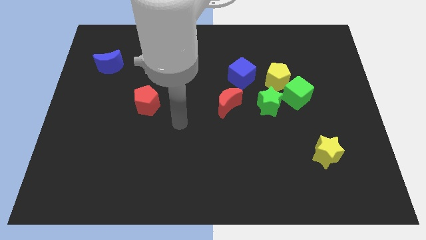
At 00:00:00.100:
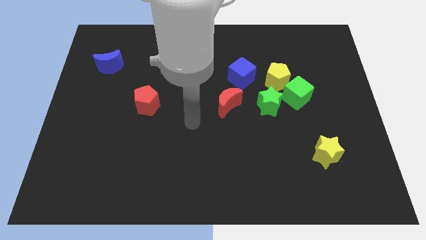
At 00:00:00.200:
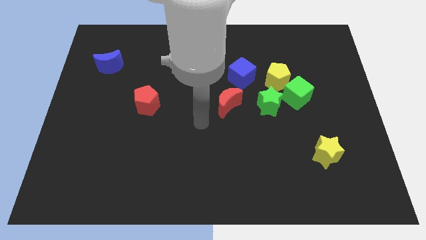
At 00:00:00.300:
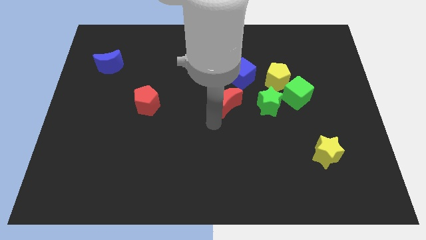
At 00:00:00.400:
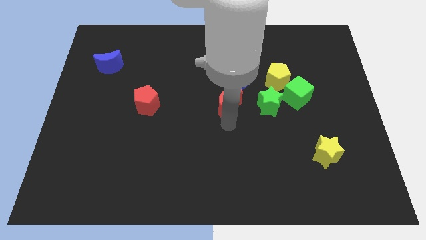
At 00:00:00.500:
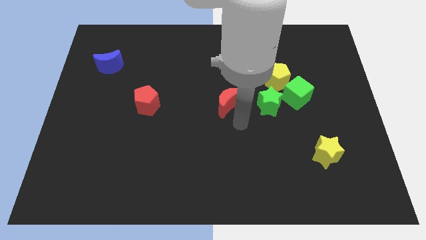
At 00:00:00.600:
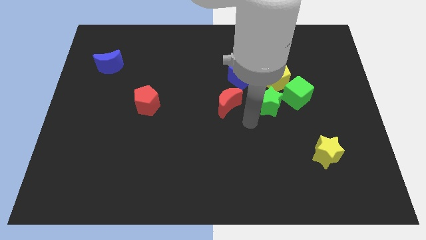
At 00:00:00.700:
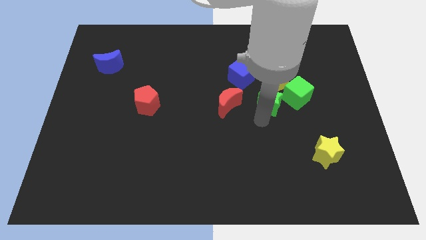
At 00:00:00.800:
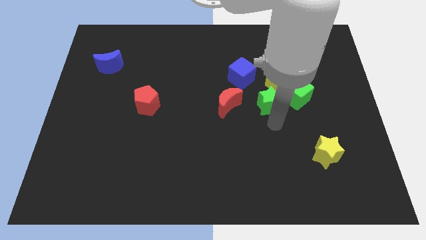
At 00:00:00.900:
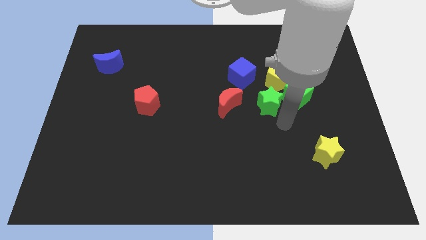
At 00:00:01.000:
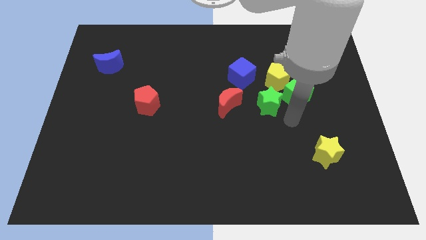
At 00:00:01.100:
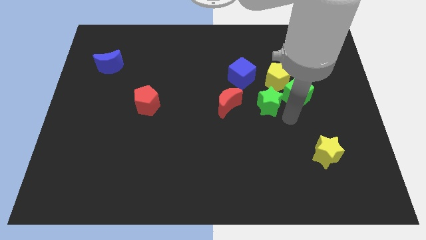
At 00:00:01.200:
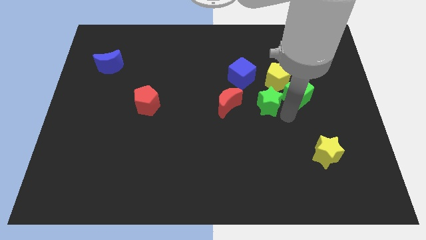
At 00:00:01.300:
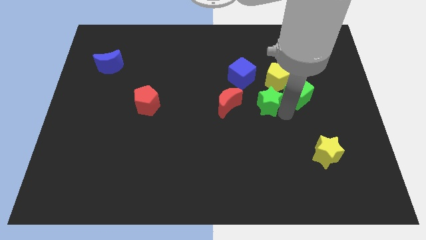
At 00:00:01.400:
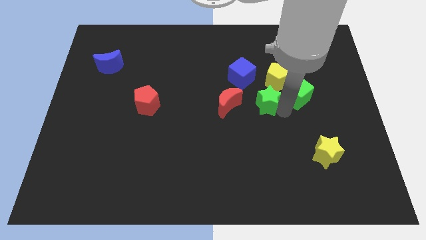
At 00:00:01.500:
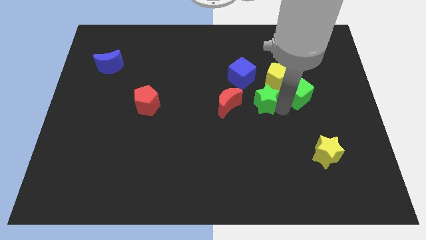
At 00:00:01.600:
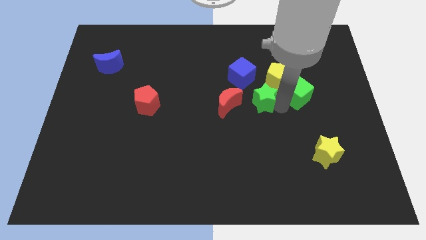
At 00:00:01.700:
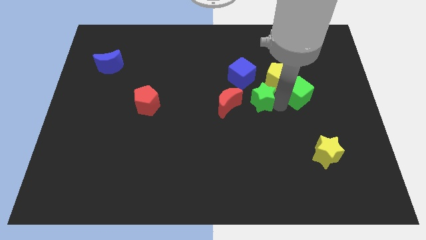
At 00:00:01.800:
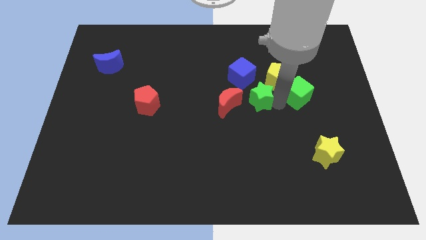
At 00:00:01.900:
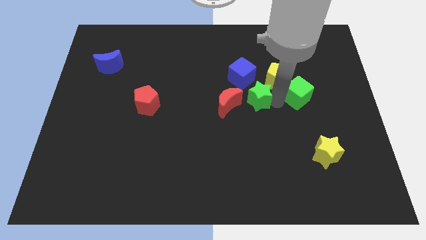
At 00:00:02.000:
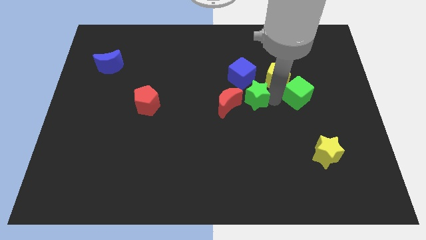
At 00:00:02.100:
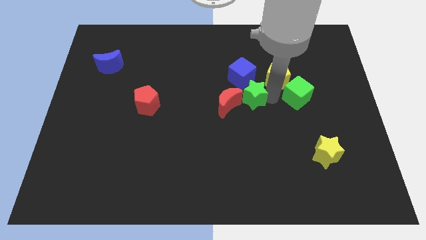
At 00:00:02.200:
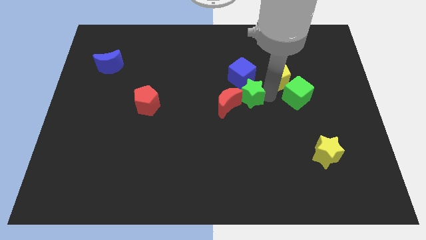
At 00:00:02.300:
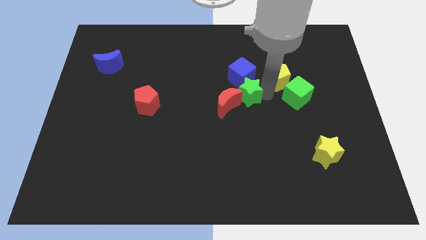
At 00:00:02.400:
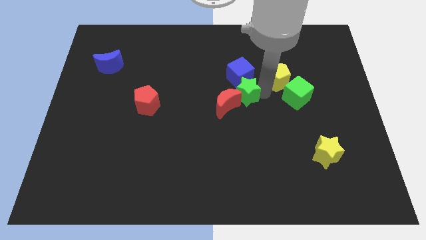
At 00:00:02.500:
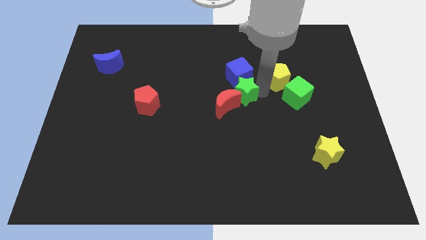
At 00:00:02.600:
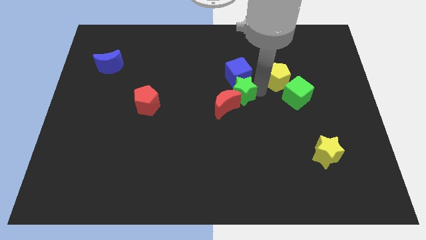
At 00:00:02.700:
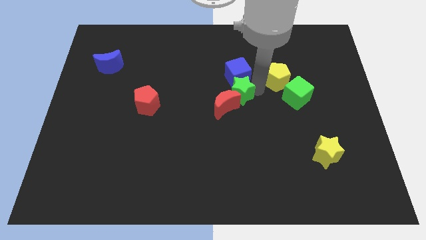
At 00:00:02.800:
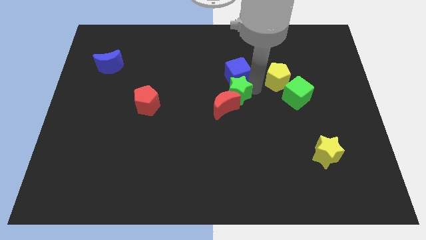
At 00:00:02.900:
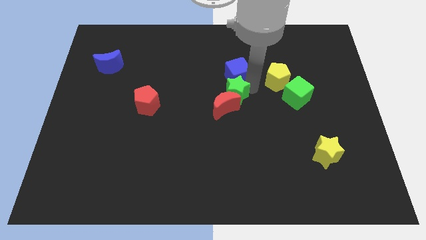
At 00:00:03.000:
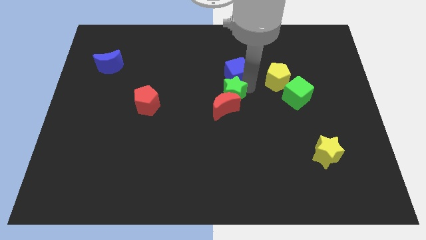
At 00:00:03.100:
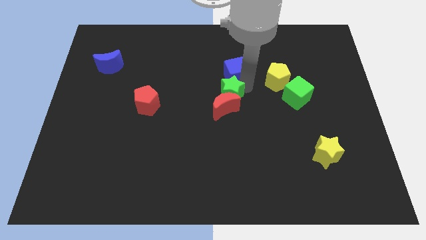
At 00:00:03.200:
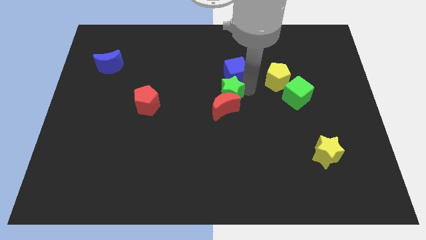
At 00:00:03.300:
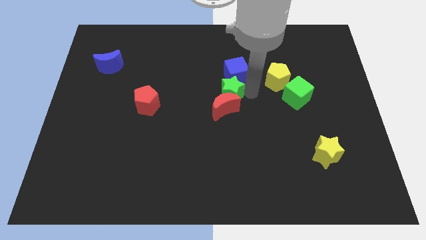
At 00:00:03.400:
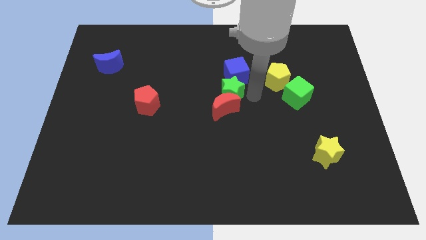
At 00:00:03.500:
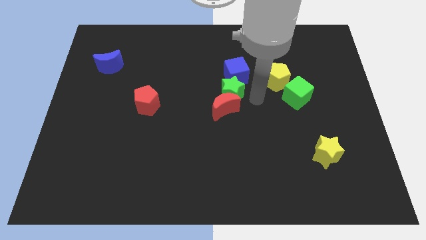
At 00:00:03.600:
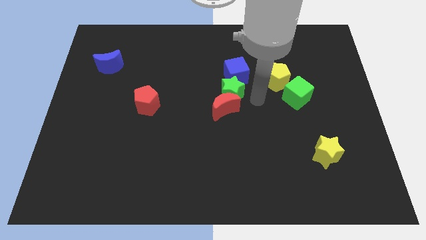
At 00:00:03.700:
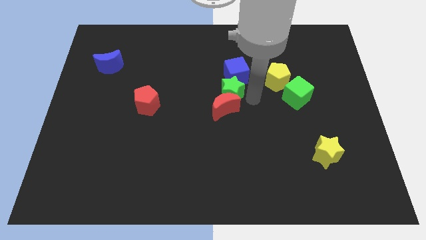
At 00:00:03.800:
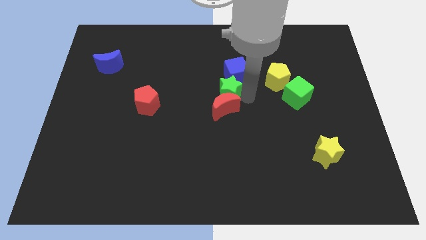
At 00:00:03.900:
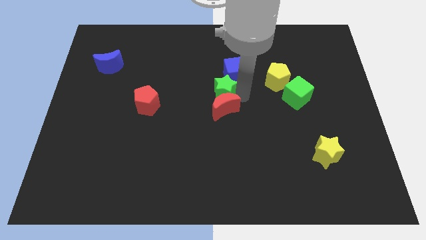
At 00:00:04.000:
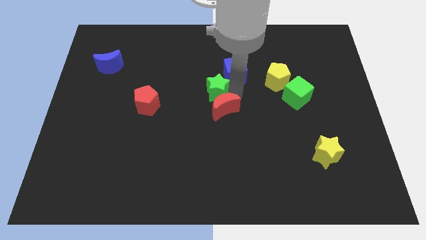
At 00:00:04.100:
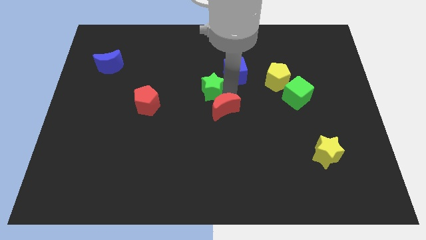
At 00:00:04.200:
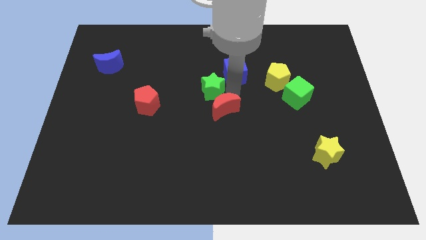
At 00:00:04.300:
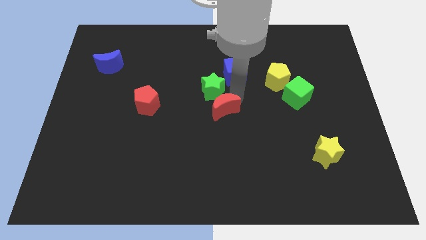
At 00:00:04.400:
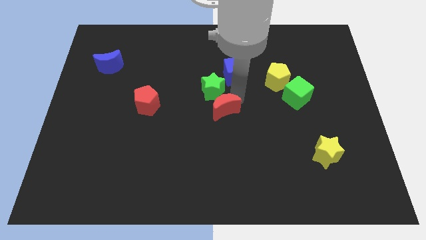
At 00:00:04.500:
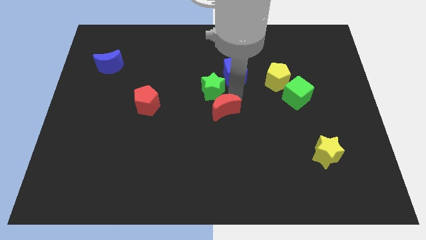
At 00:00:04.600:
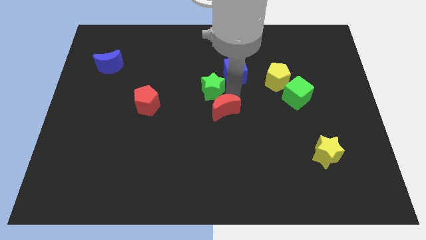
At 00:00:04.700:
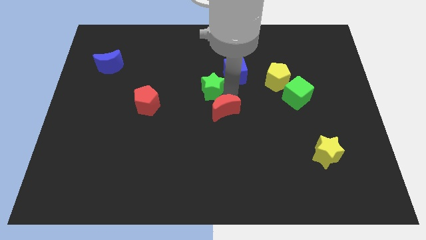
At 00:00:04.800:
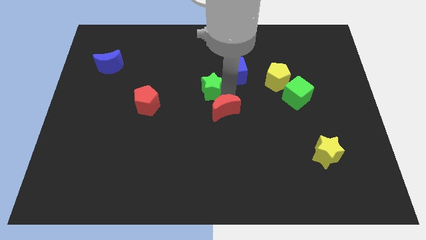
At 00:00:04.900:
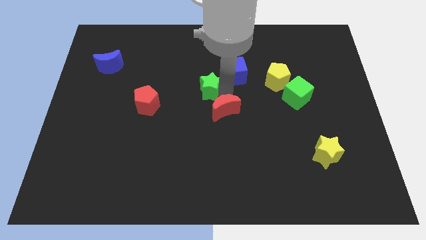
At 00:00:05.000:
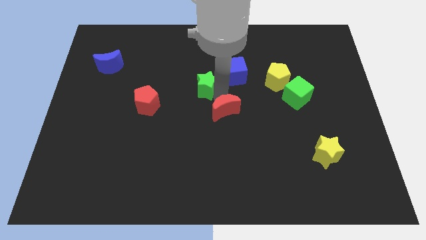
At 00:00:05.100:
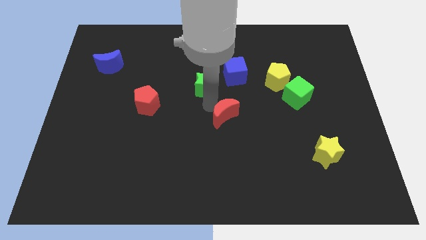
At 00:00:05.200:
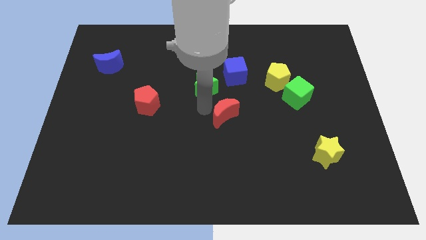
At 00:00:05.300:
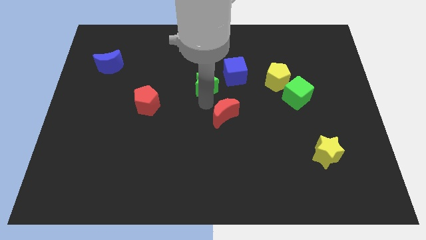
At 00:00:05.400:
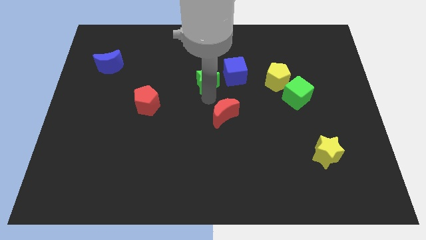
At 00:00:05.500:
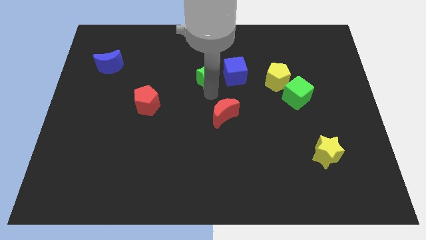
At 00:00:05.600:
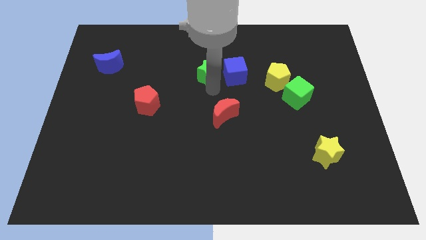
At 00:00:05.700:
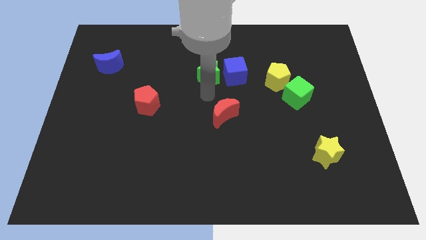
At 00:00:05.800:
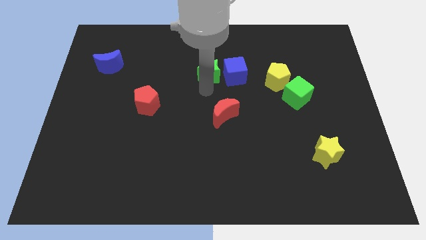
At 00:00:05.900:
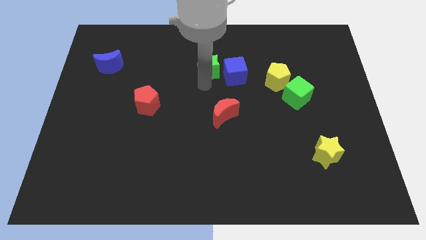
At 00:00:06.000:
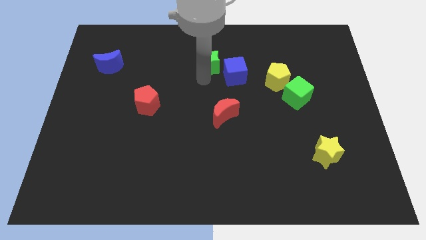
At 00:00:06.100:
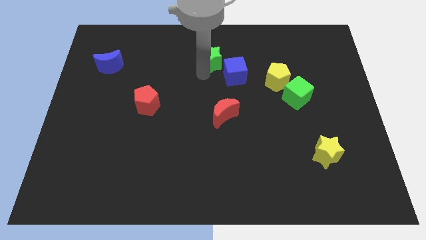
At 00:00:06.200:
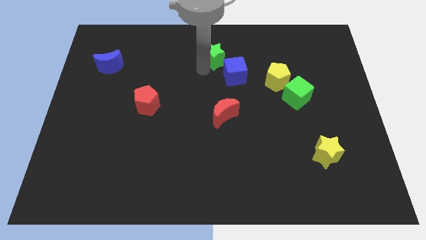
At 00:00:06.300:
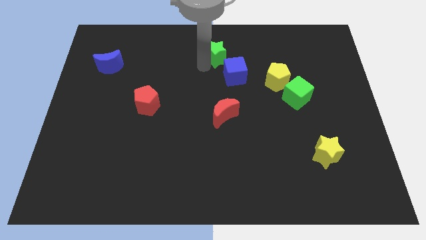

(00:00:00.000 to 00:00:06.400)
put the green star to the top
